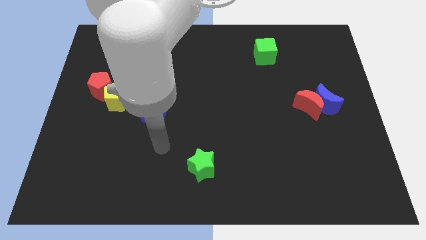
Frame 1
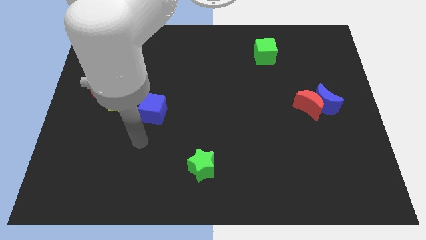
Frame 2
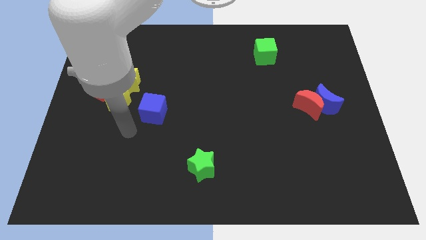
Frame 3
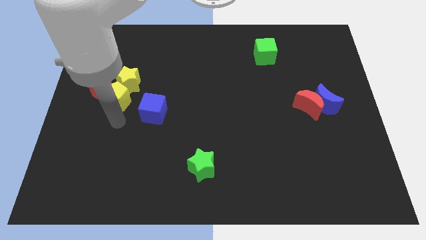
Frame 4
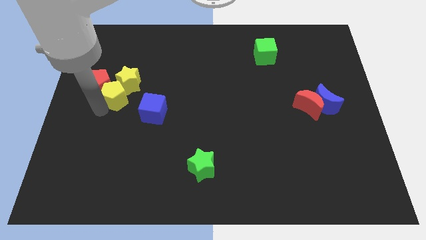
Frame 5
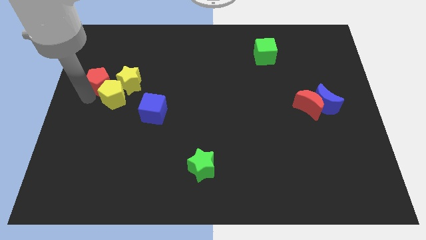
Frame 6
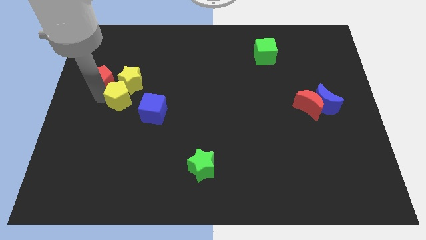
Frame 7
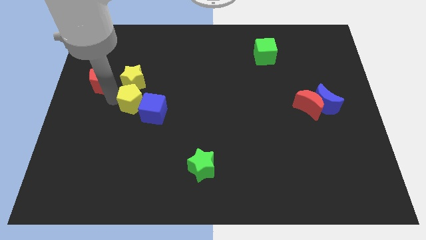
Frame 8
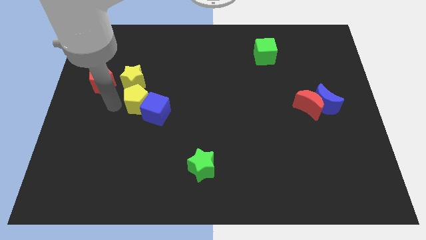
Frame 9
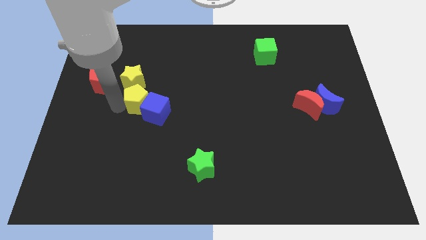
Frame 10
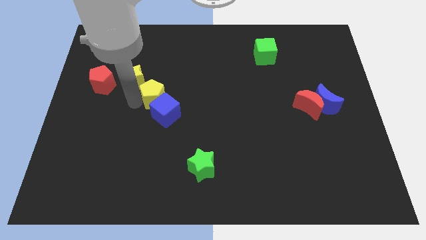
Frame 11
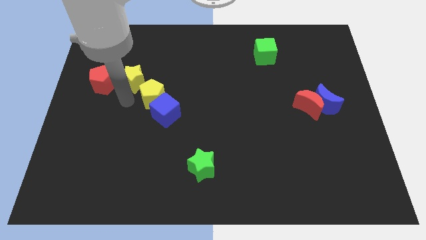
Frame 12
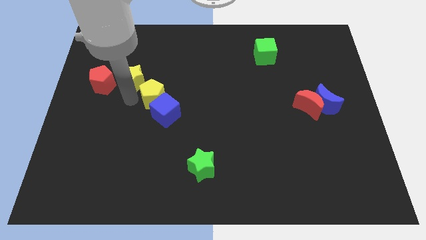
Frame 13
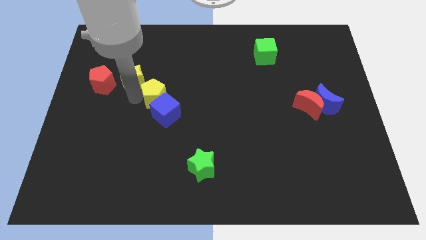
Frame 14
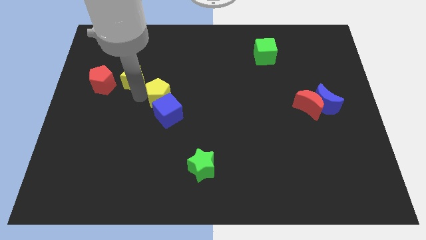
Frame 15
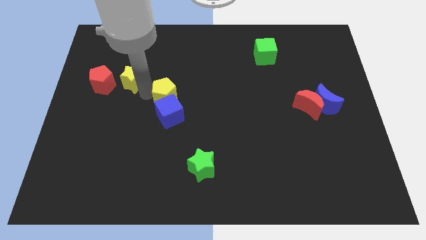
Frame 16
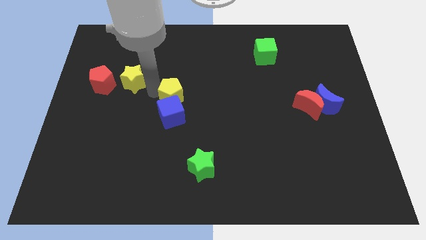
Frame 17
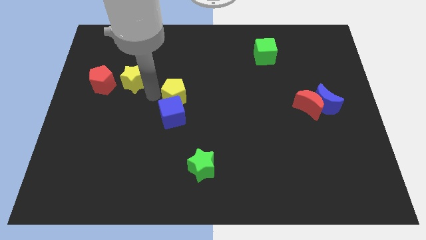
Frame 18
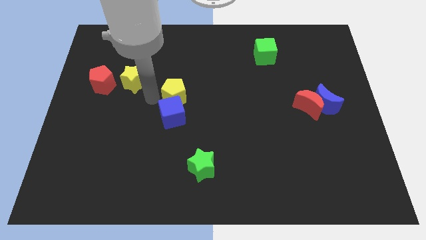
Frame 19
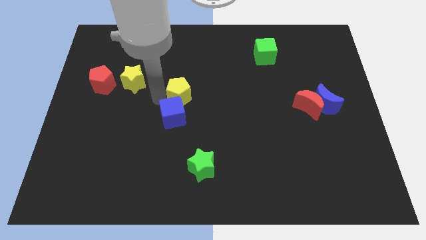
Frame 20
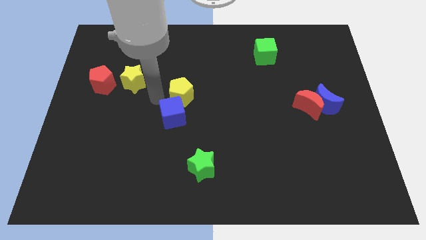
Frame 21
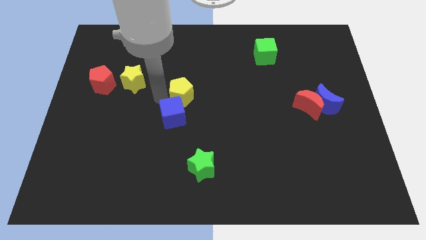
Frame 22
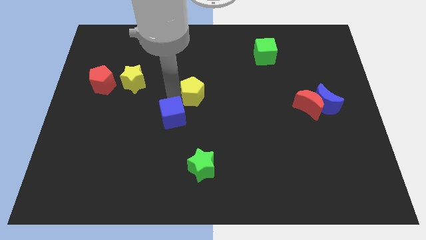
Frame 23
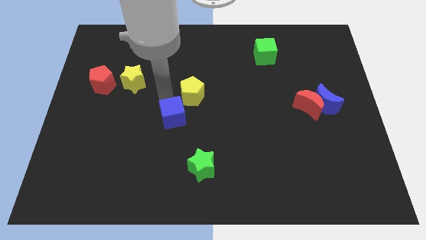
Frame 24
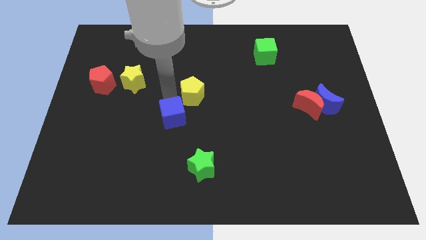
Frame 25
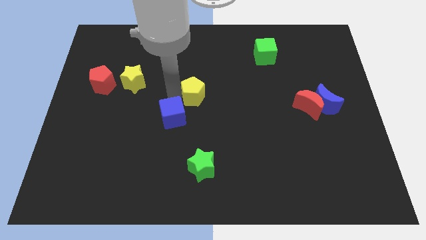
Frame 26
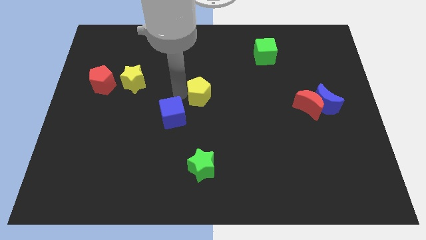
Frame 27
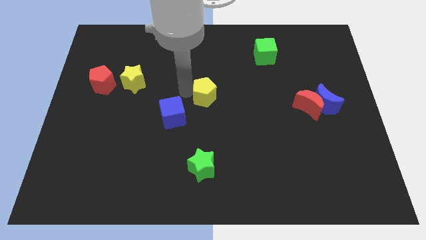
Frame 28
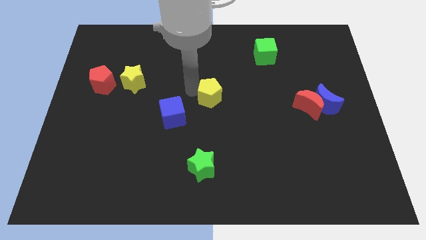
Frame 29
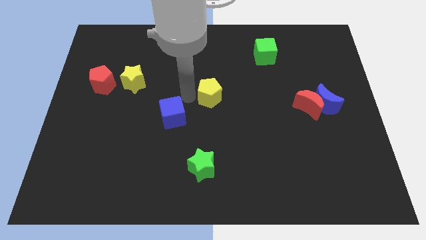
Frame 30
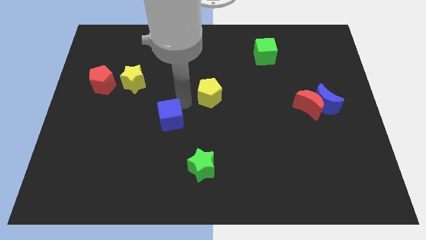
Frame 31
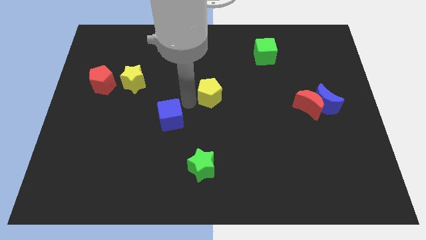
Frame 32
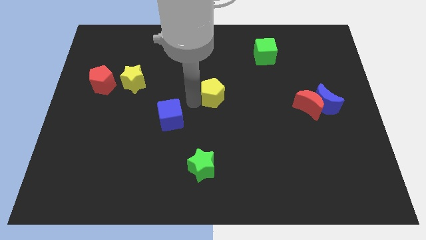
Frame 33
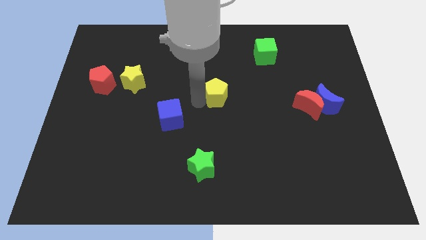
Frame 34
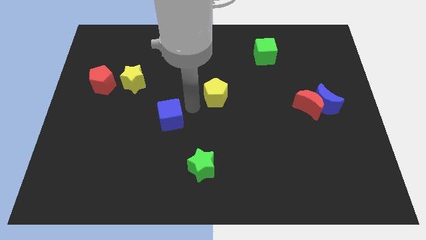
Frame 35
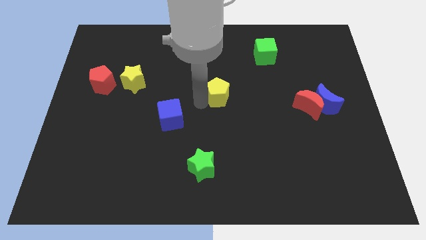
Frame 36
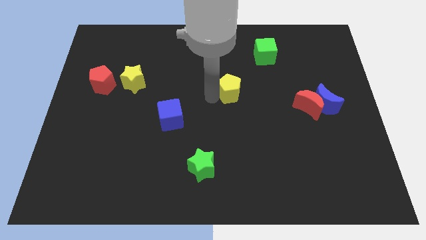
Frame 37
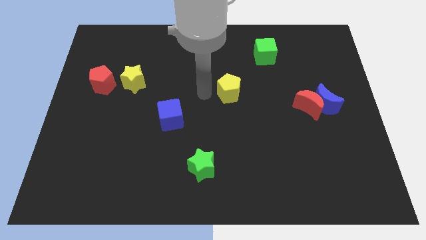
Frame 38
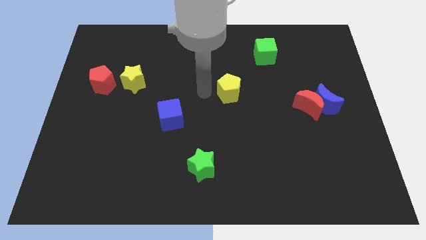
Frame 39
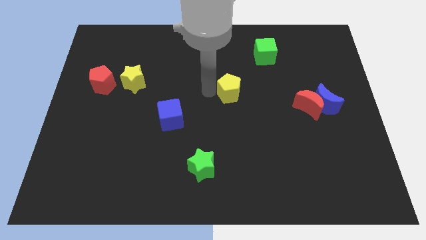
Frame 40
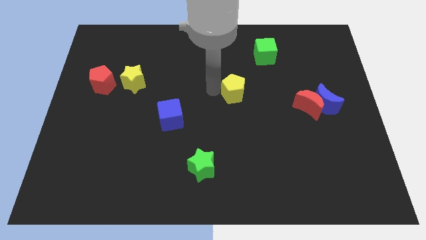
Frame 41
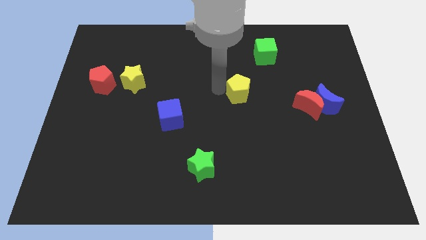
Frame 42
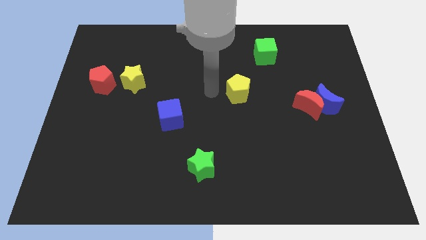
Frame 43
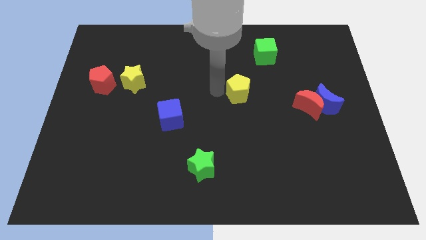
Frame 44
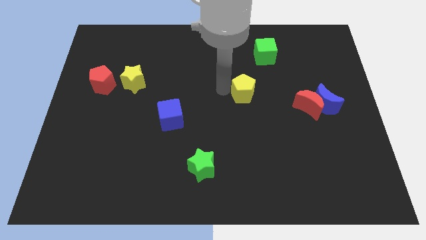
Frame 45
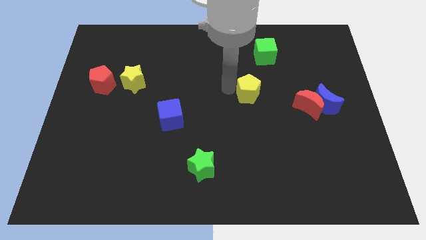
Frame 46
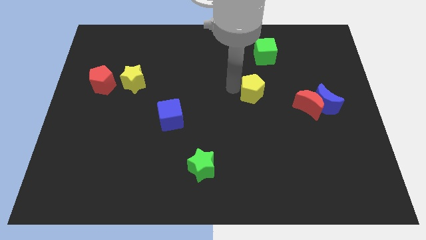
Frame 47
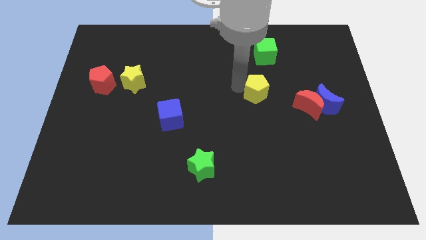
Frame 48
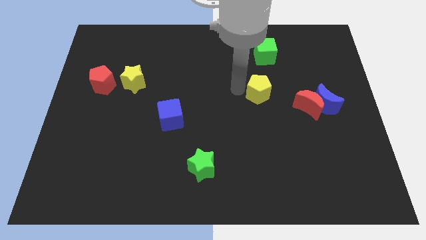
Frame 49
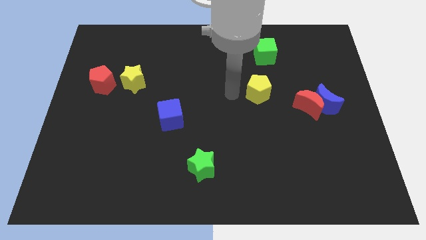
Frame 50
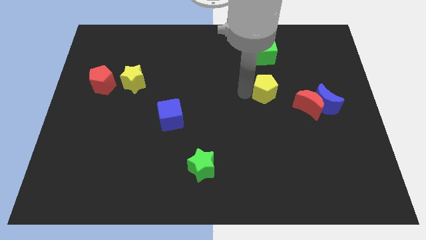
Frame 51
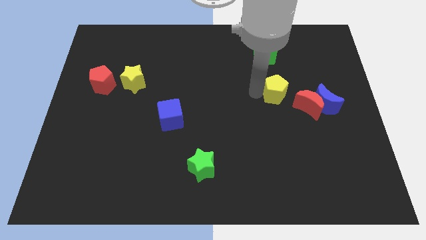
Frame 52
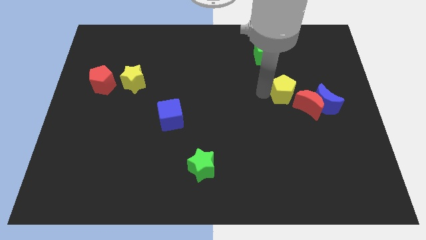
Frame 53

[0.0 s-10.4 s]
move the yellow pentagon to the top left of the blue moon

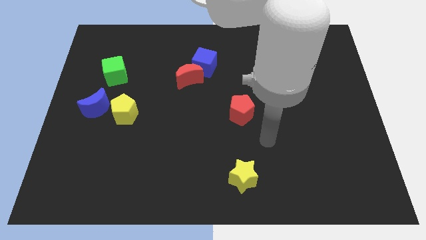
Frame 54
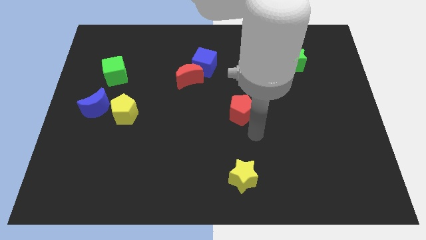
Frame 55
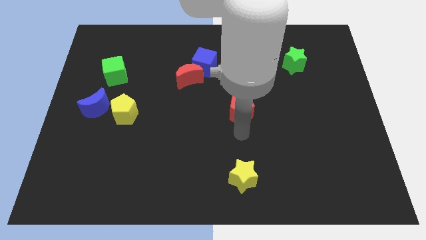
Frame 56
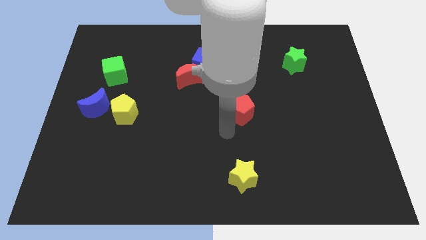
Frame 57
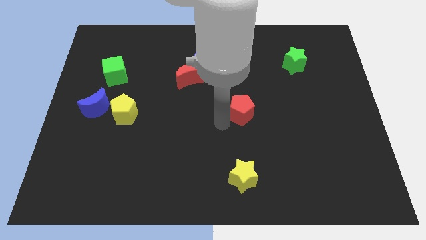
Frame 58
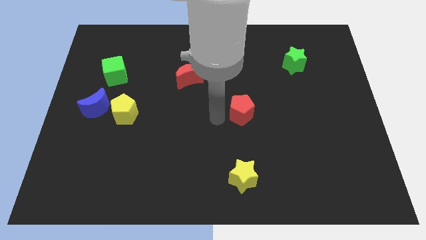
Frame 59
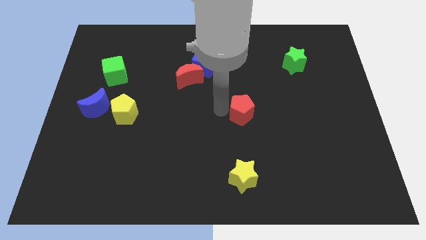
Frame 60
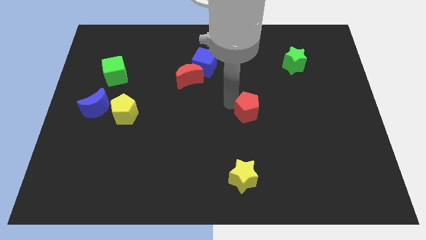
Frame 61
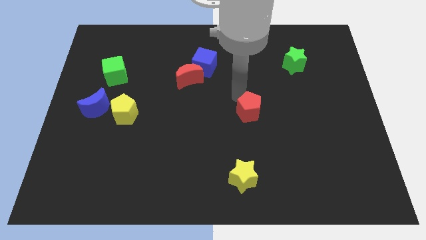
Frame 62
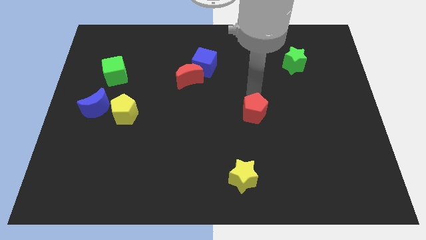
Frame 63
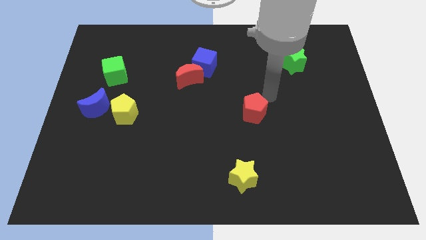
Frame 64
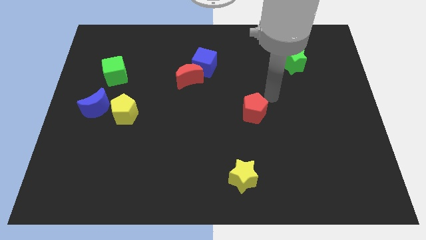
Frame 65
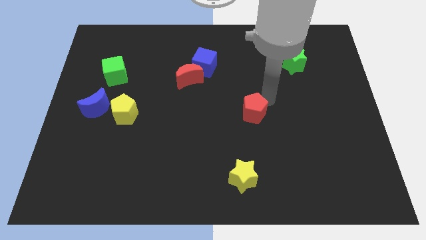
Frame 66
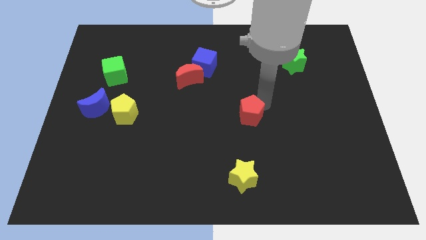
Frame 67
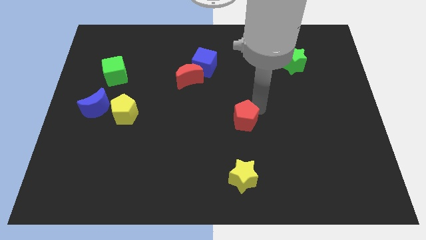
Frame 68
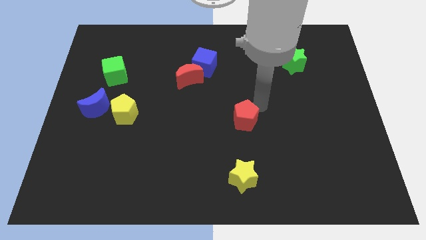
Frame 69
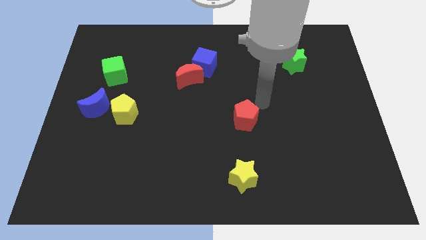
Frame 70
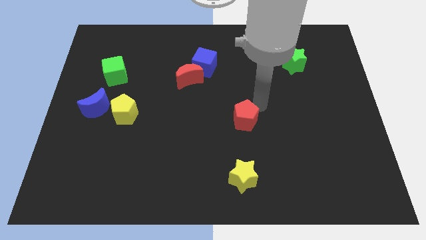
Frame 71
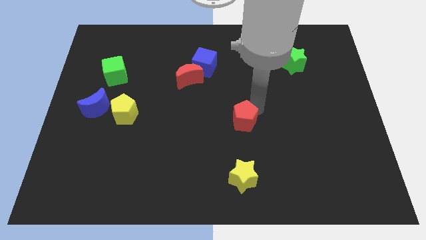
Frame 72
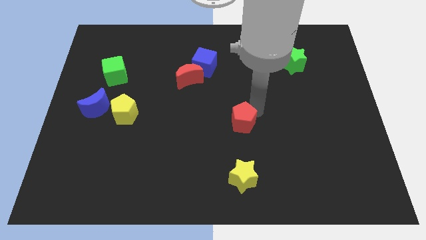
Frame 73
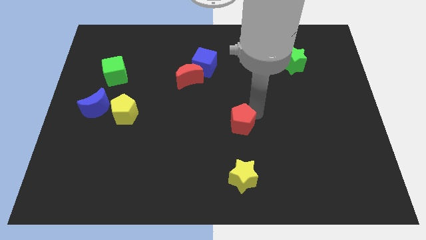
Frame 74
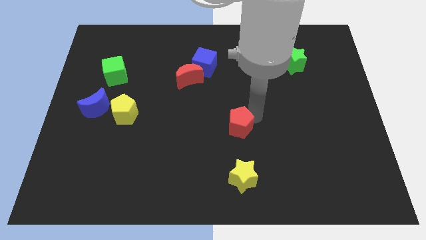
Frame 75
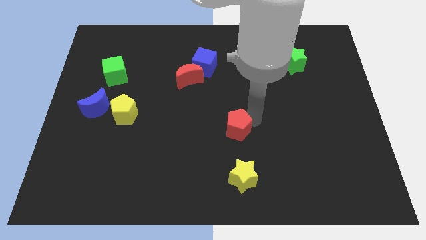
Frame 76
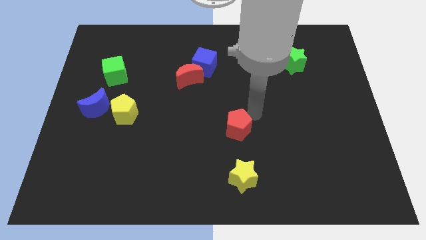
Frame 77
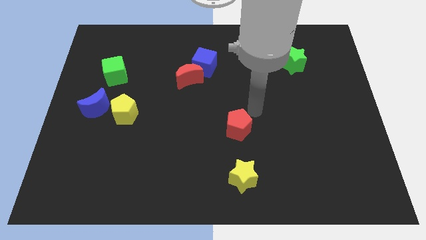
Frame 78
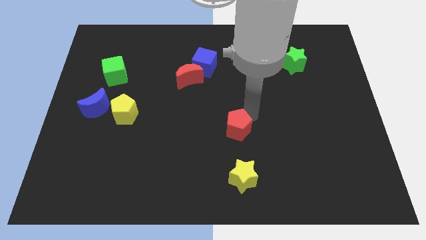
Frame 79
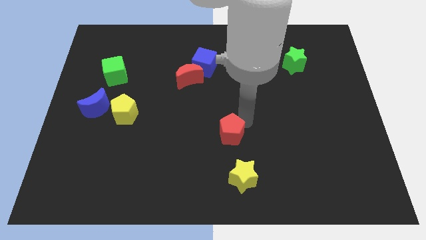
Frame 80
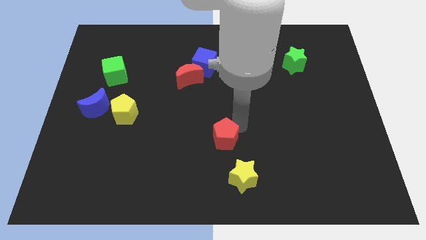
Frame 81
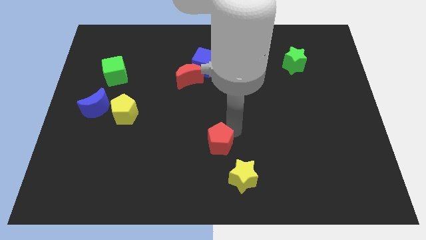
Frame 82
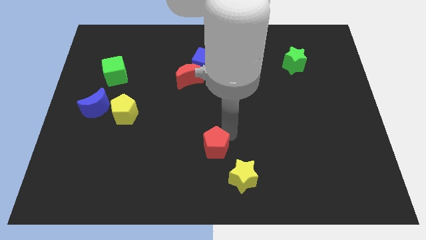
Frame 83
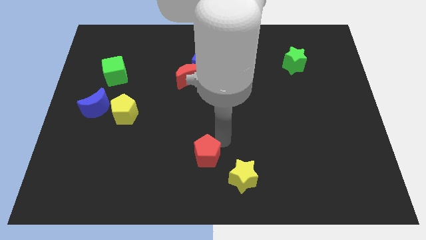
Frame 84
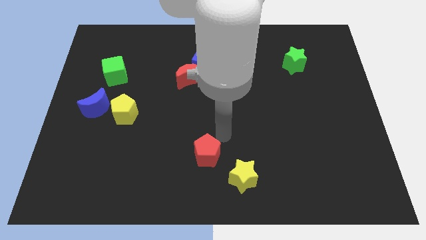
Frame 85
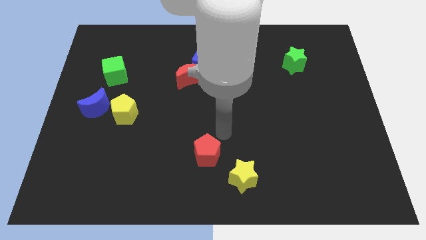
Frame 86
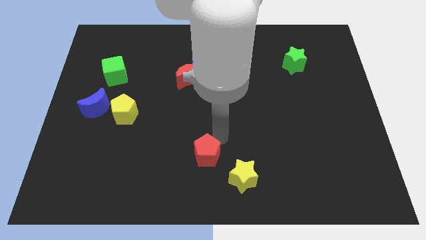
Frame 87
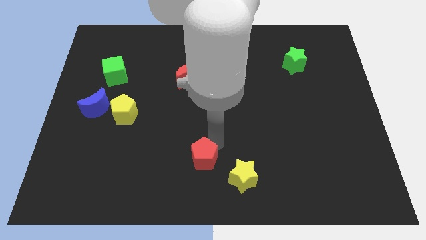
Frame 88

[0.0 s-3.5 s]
move the red pentagon just left of the yellow star
